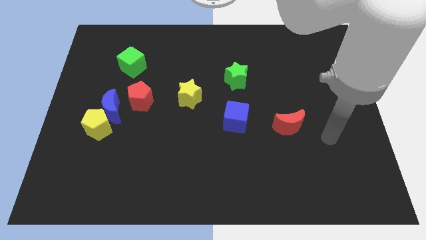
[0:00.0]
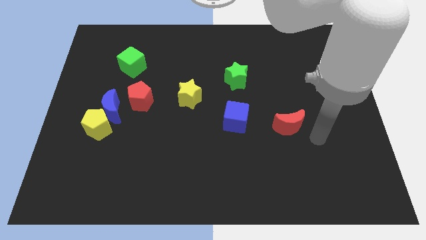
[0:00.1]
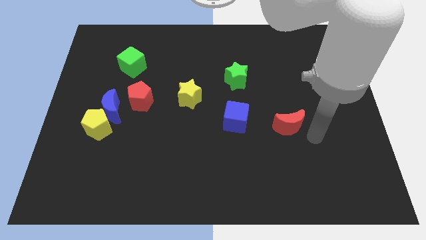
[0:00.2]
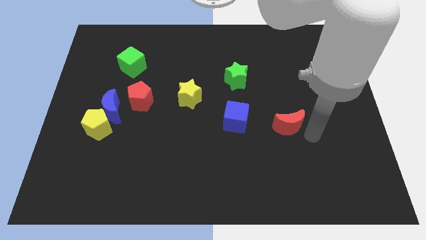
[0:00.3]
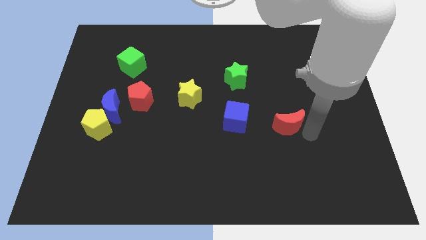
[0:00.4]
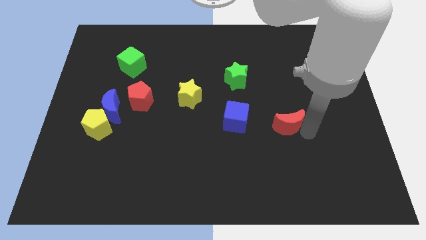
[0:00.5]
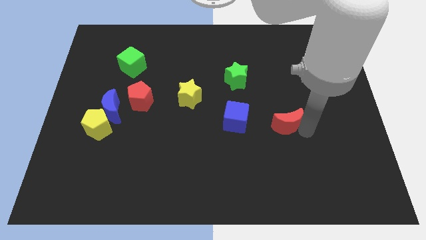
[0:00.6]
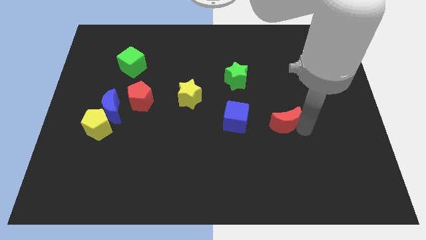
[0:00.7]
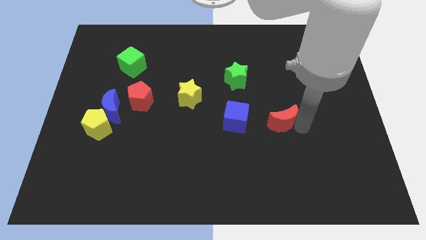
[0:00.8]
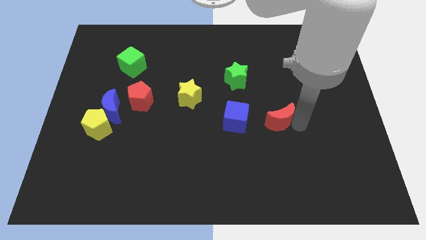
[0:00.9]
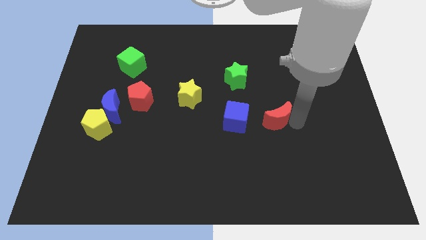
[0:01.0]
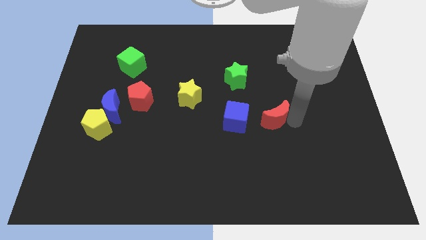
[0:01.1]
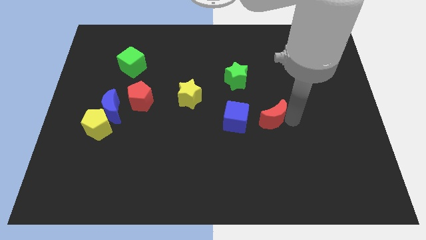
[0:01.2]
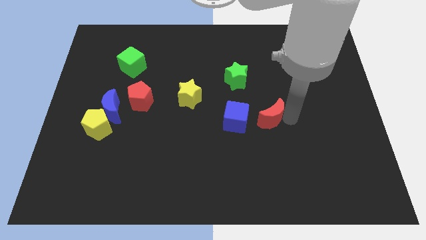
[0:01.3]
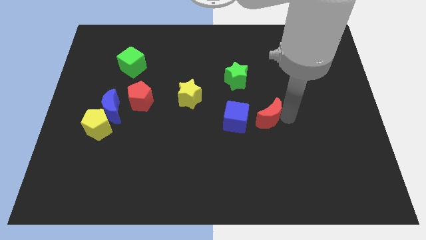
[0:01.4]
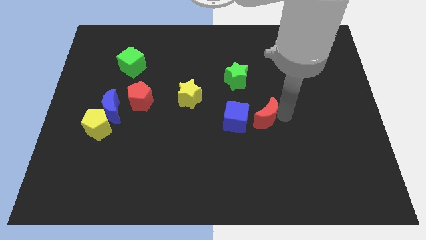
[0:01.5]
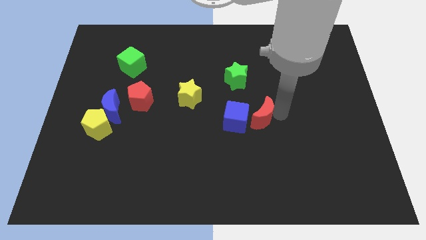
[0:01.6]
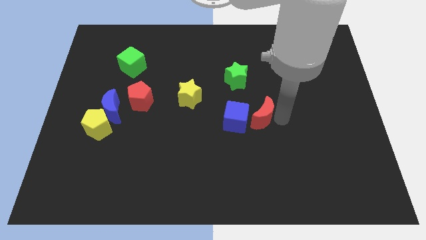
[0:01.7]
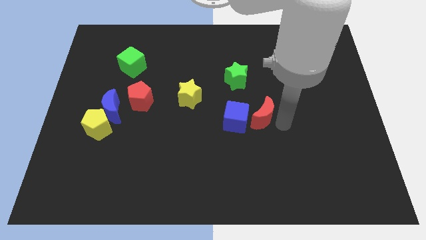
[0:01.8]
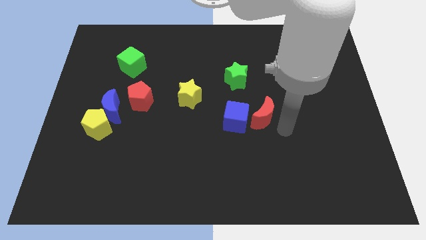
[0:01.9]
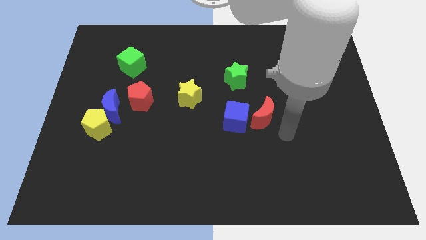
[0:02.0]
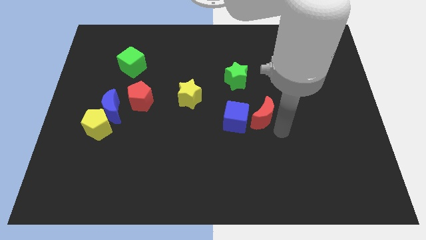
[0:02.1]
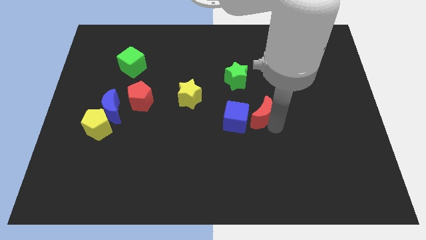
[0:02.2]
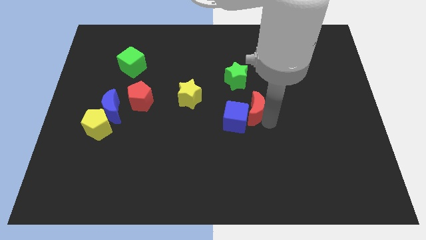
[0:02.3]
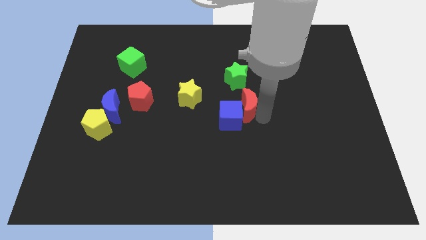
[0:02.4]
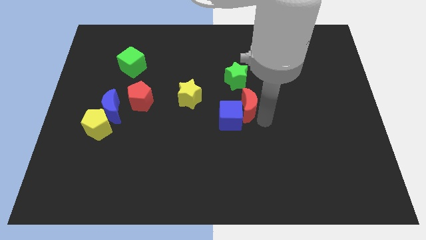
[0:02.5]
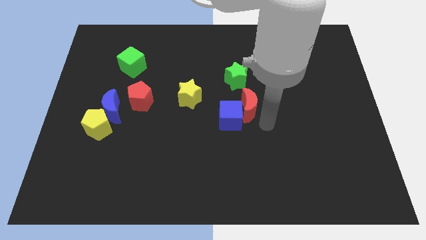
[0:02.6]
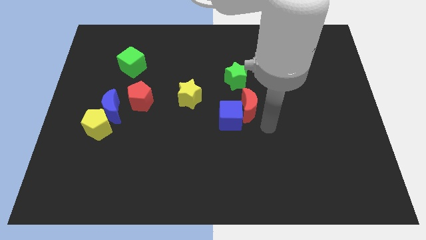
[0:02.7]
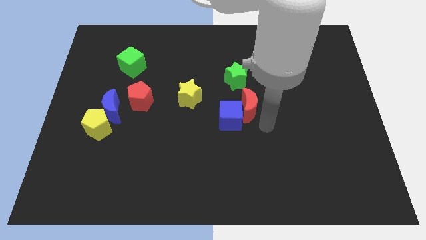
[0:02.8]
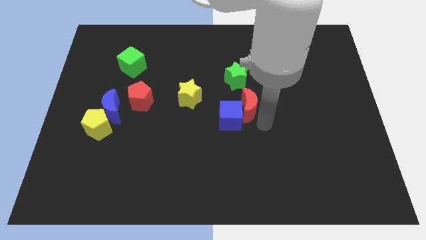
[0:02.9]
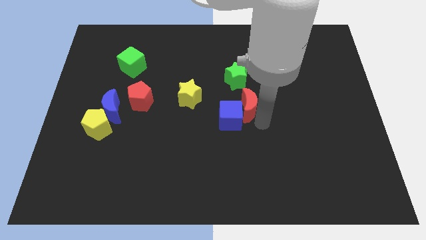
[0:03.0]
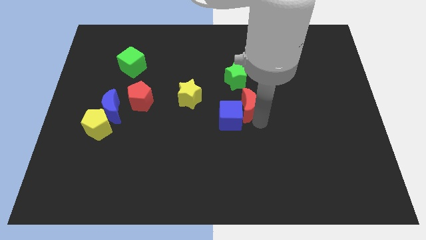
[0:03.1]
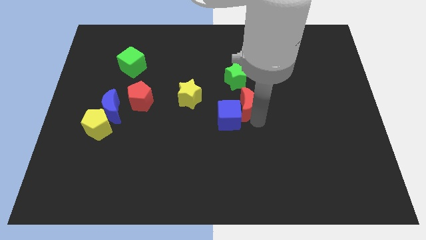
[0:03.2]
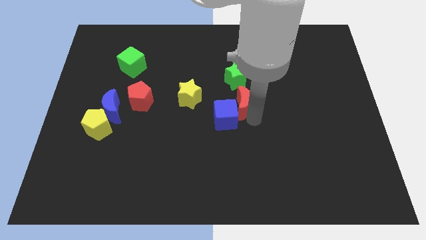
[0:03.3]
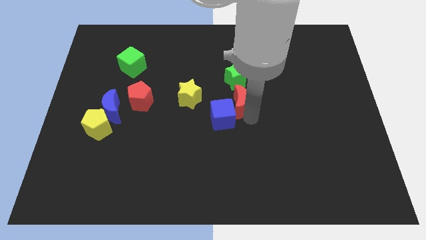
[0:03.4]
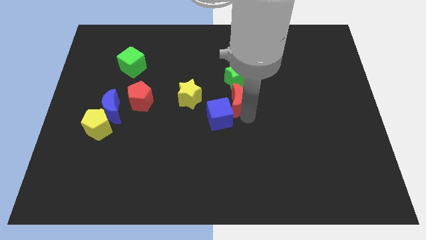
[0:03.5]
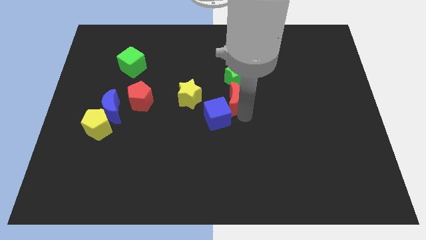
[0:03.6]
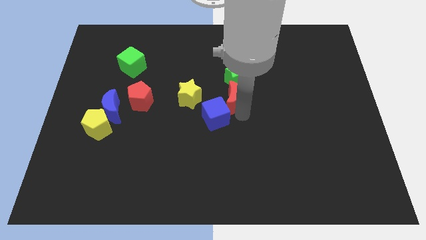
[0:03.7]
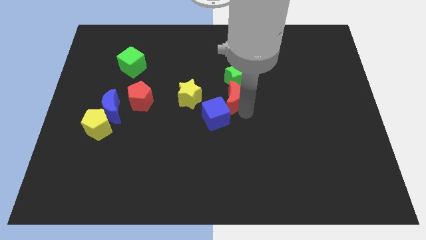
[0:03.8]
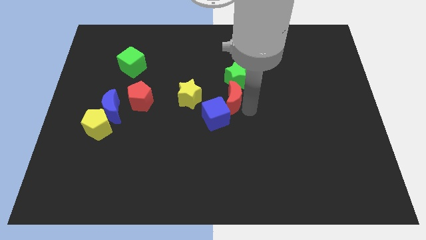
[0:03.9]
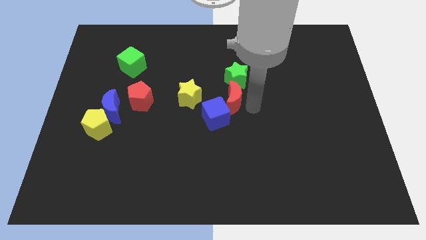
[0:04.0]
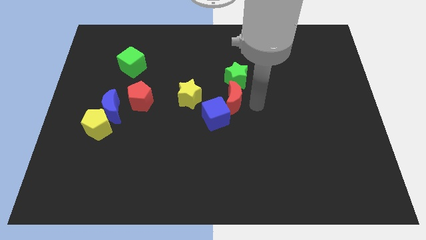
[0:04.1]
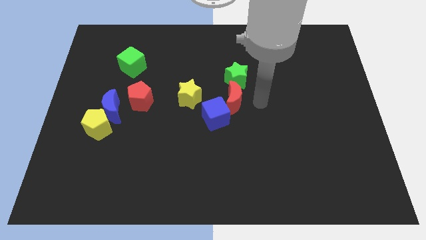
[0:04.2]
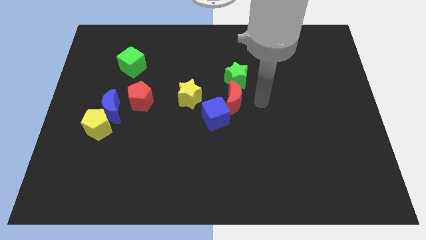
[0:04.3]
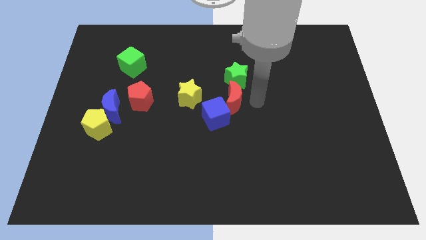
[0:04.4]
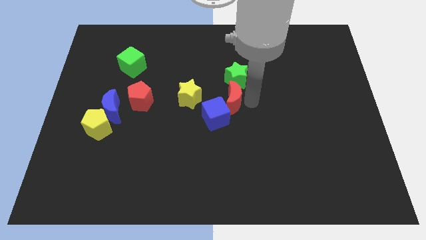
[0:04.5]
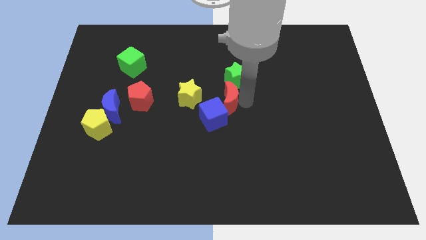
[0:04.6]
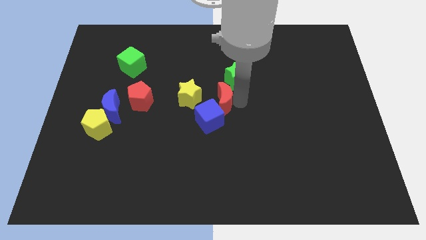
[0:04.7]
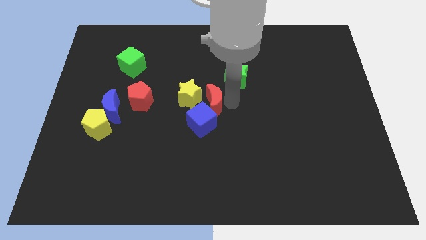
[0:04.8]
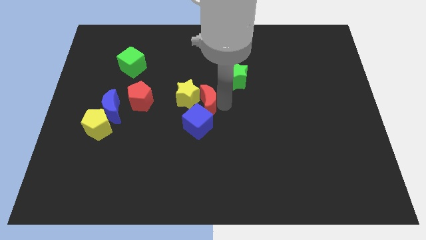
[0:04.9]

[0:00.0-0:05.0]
put the red moon close to the yellow star

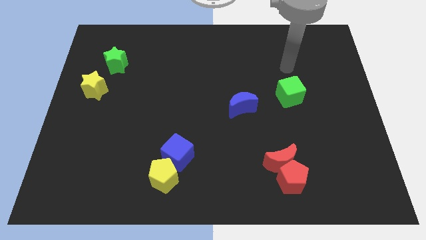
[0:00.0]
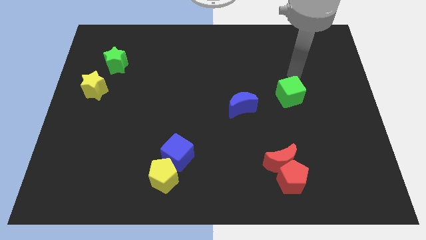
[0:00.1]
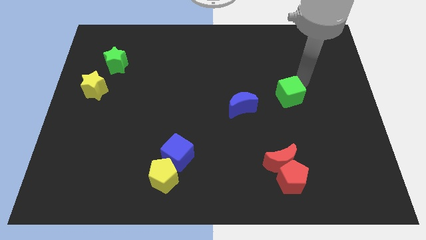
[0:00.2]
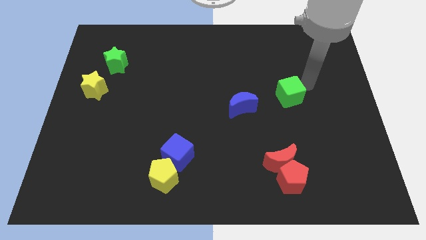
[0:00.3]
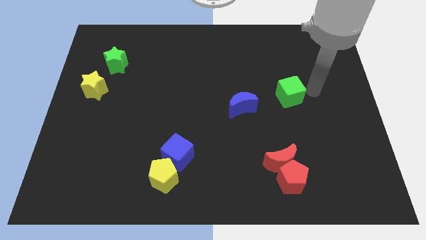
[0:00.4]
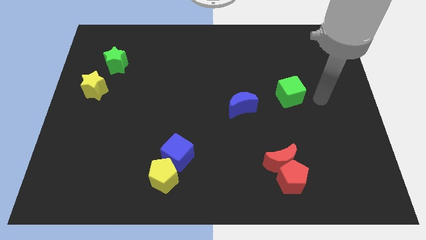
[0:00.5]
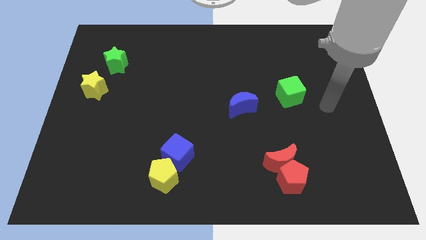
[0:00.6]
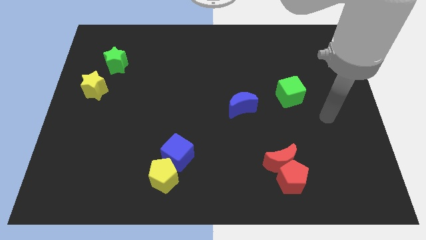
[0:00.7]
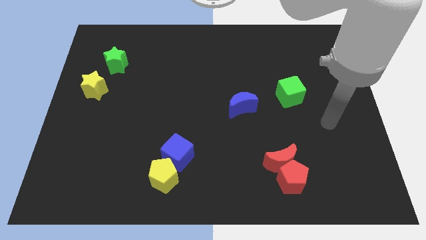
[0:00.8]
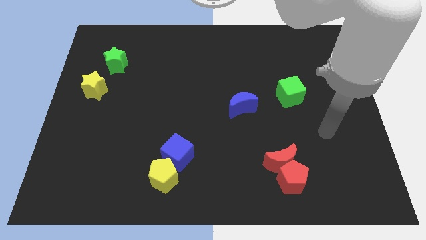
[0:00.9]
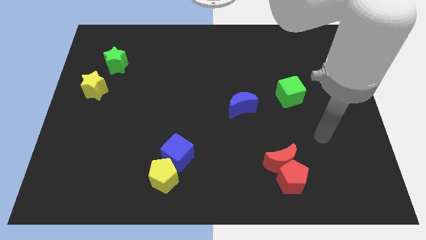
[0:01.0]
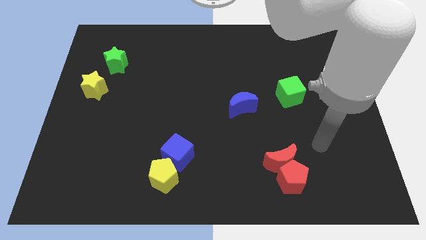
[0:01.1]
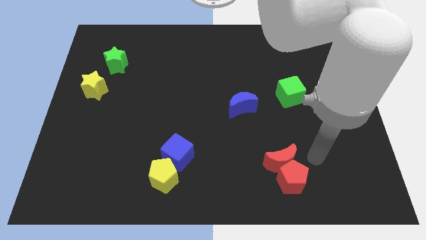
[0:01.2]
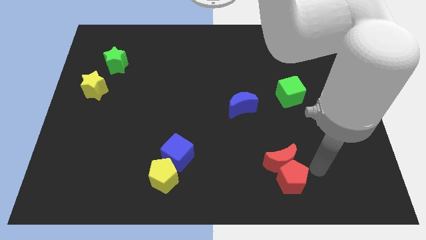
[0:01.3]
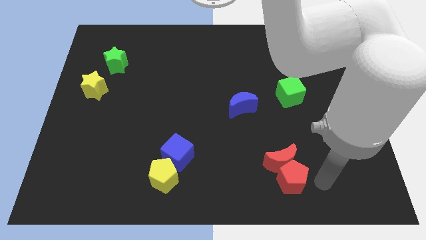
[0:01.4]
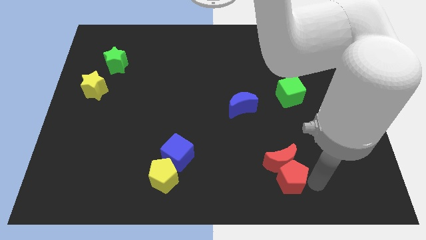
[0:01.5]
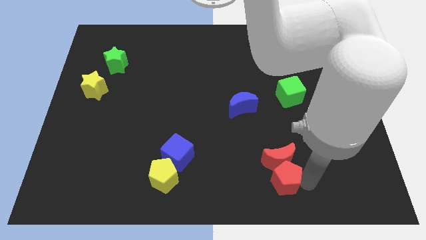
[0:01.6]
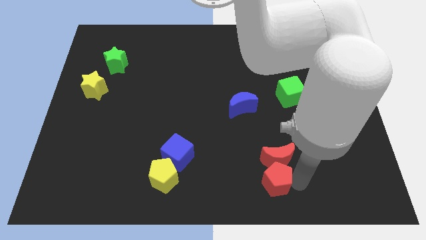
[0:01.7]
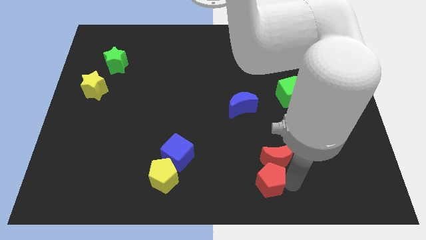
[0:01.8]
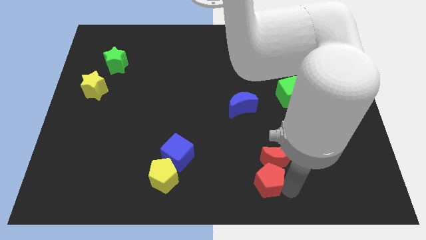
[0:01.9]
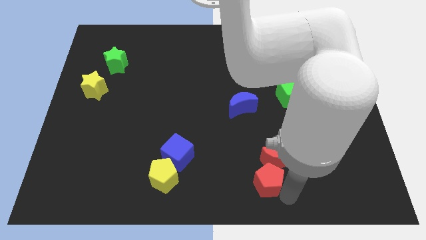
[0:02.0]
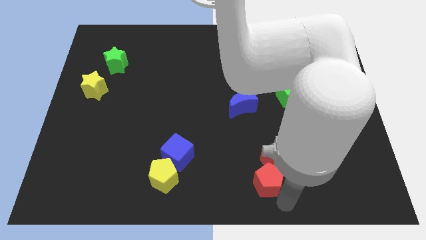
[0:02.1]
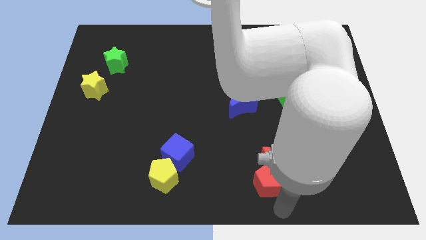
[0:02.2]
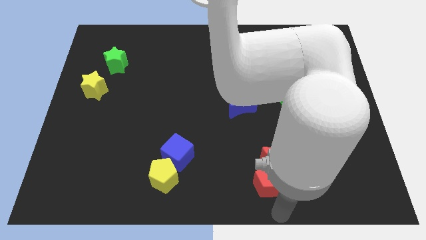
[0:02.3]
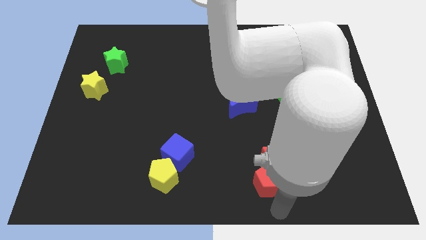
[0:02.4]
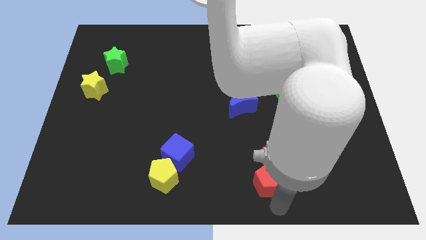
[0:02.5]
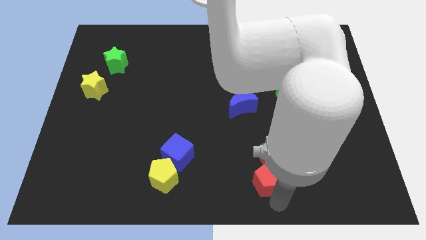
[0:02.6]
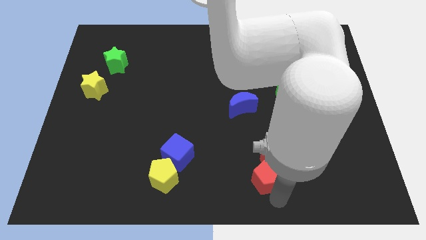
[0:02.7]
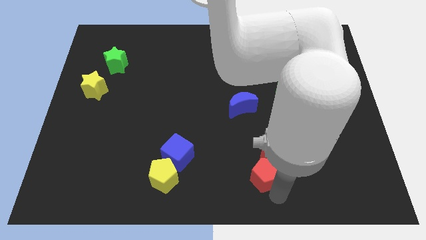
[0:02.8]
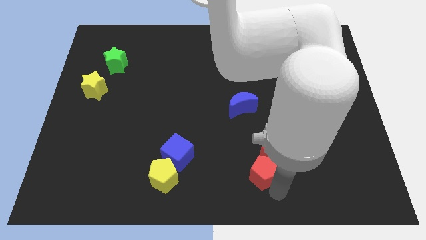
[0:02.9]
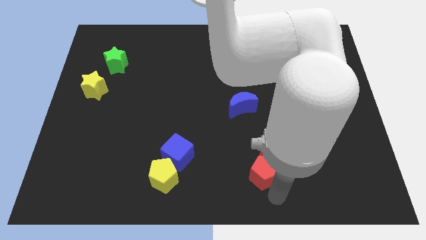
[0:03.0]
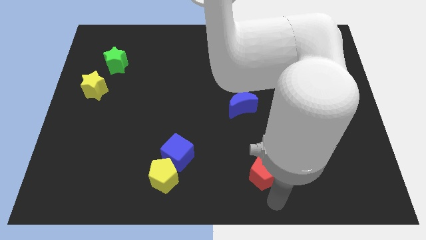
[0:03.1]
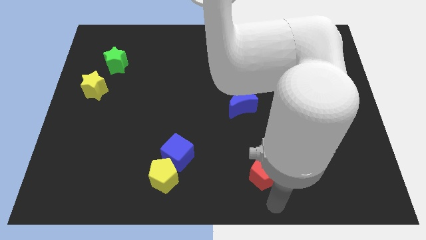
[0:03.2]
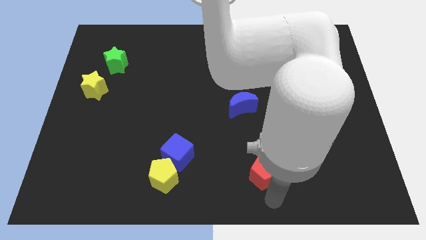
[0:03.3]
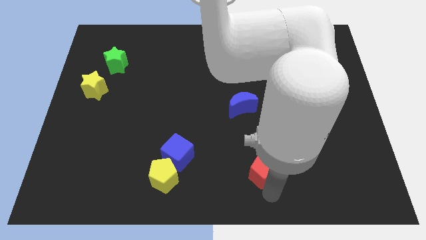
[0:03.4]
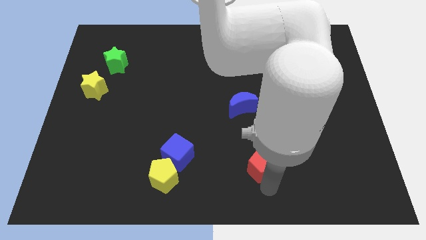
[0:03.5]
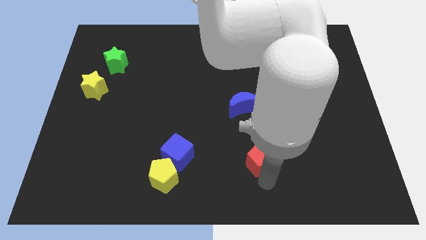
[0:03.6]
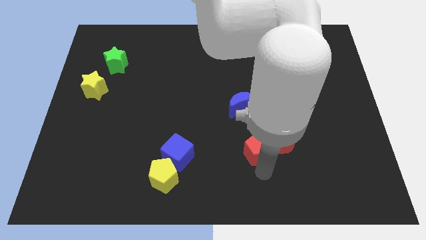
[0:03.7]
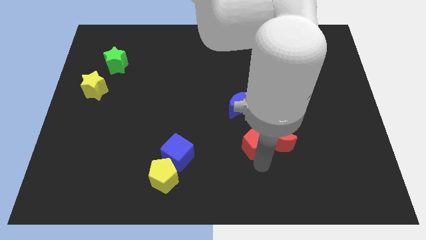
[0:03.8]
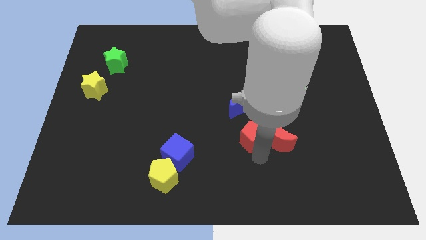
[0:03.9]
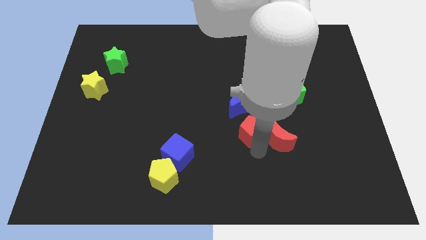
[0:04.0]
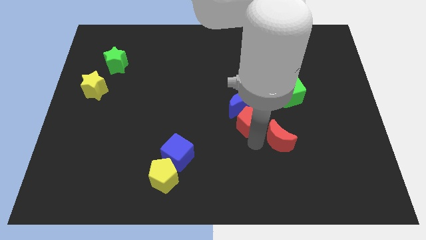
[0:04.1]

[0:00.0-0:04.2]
move the red pentagon close to the blue moon
